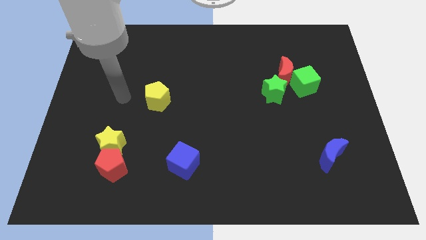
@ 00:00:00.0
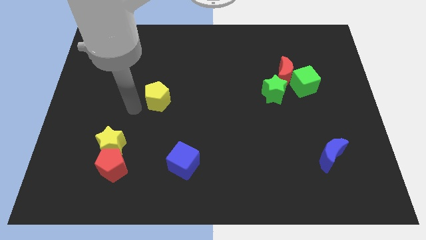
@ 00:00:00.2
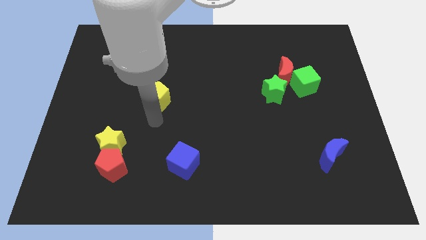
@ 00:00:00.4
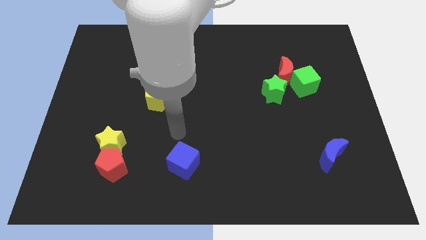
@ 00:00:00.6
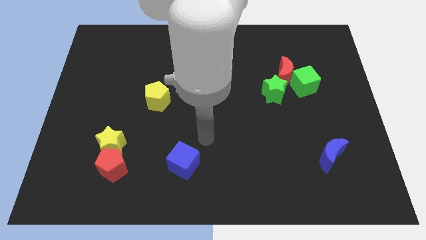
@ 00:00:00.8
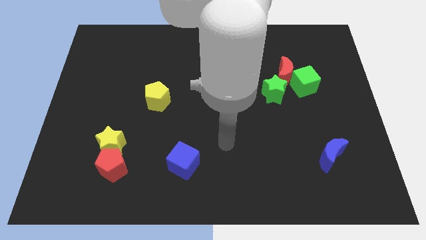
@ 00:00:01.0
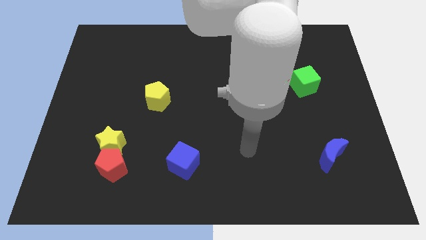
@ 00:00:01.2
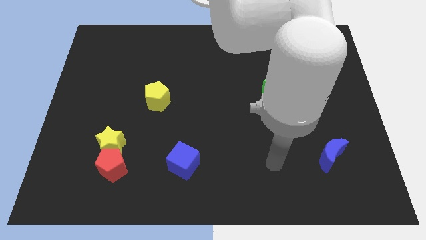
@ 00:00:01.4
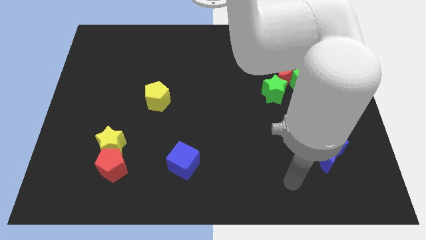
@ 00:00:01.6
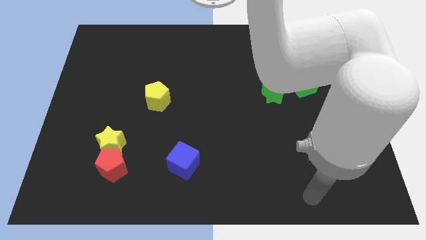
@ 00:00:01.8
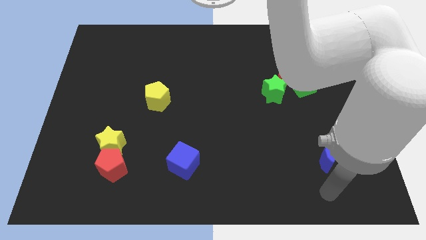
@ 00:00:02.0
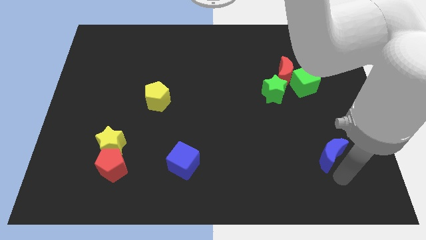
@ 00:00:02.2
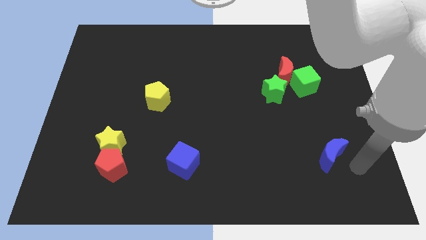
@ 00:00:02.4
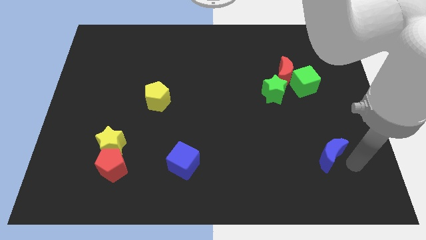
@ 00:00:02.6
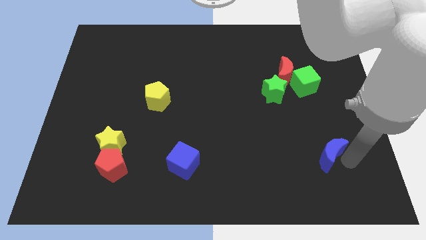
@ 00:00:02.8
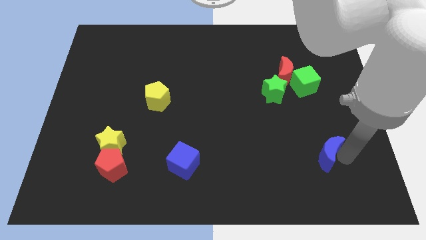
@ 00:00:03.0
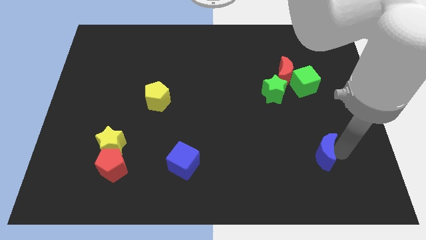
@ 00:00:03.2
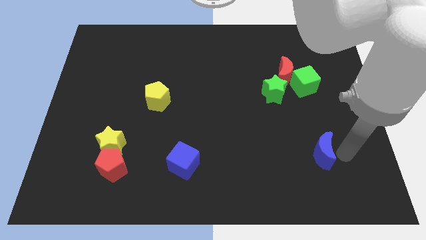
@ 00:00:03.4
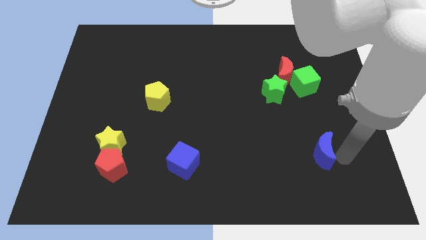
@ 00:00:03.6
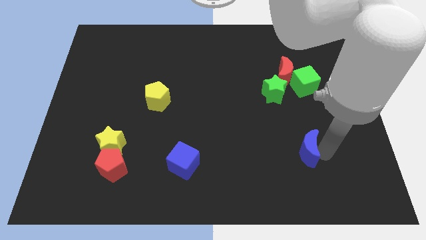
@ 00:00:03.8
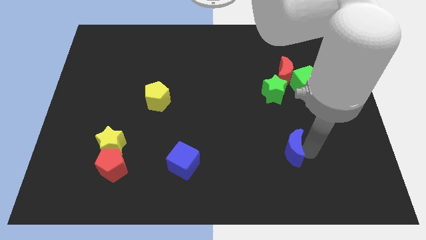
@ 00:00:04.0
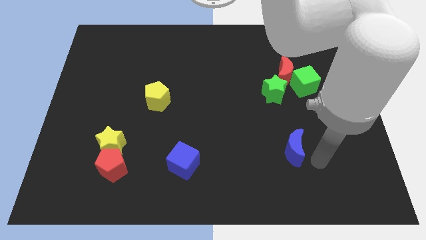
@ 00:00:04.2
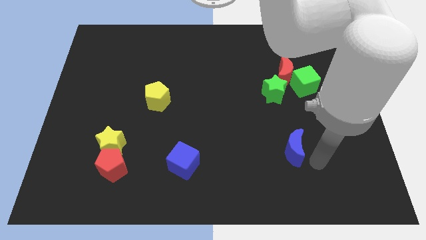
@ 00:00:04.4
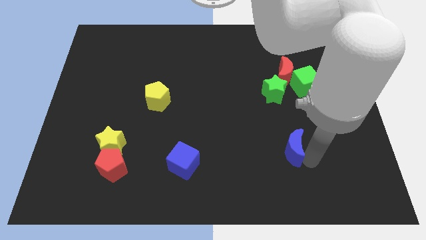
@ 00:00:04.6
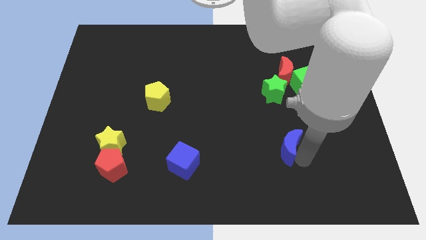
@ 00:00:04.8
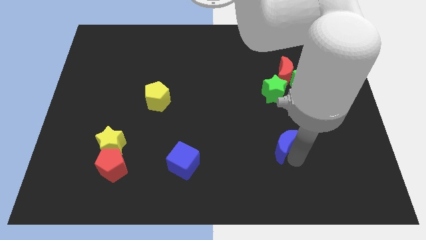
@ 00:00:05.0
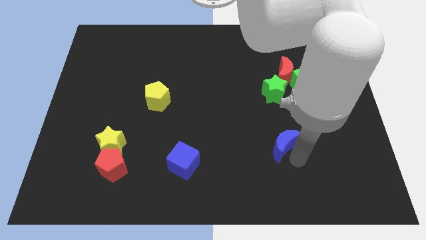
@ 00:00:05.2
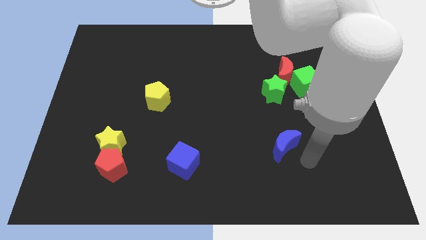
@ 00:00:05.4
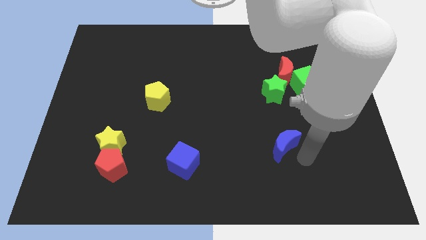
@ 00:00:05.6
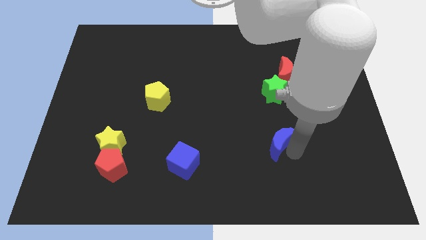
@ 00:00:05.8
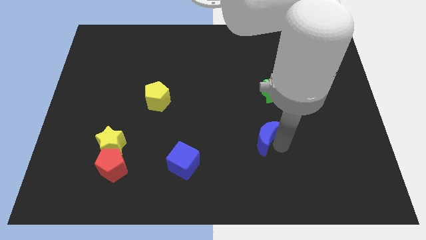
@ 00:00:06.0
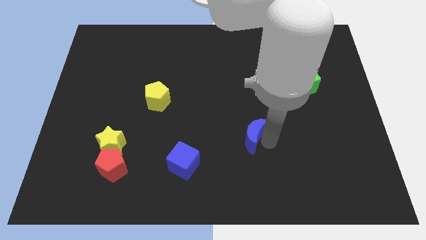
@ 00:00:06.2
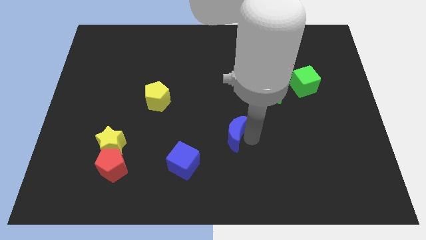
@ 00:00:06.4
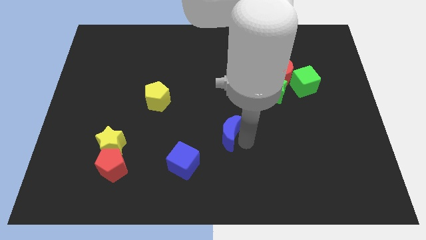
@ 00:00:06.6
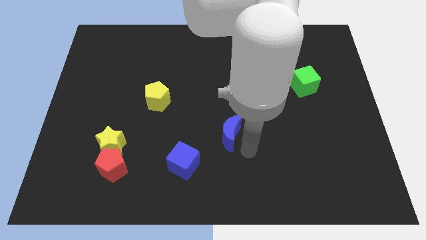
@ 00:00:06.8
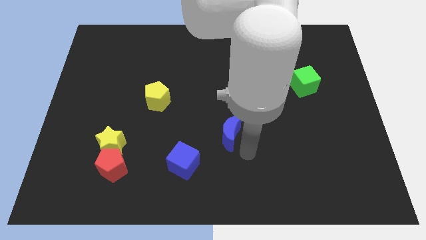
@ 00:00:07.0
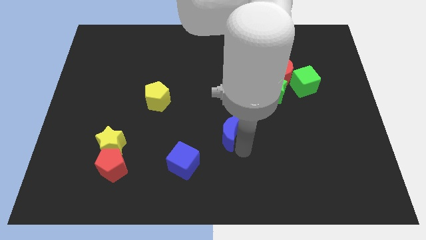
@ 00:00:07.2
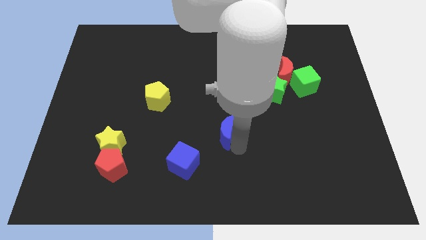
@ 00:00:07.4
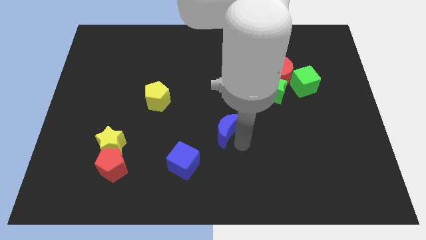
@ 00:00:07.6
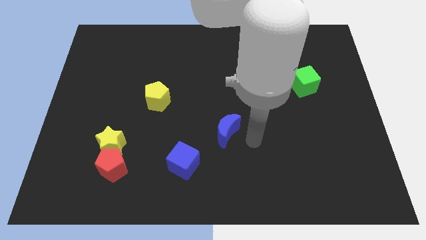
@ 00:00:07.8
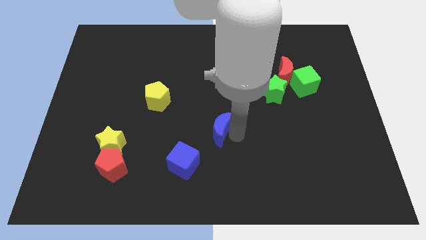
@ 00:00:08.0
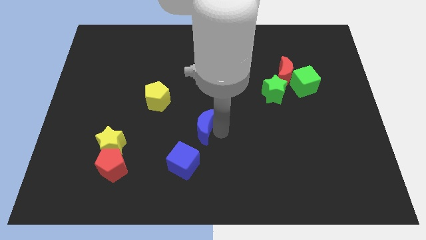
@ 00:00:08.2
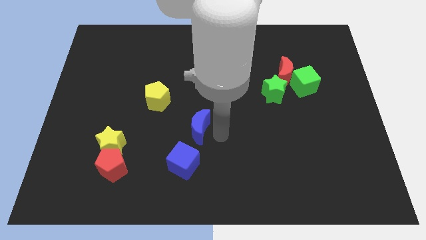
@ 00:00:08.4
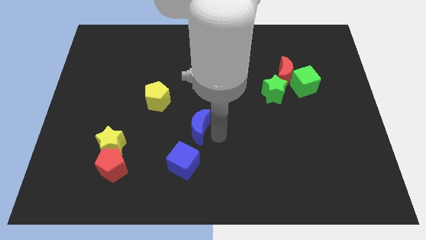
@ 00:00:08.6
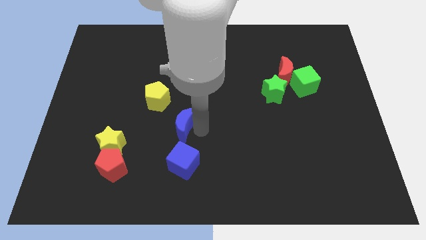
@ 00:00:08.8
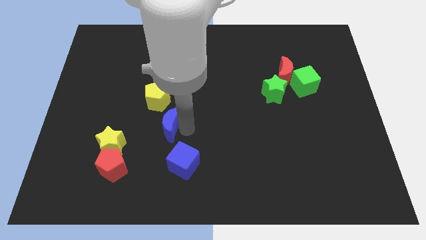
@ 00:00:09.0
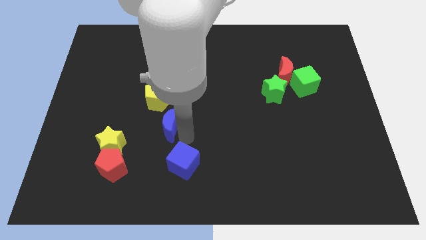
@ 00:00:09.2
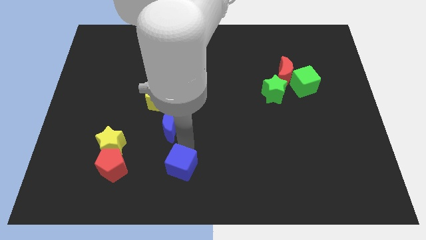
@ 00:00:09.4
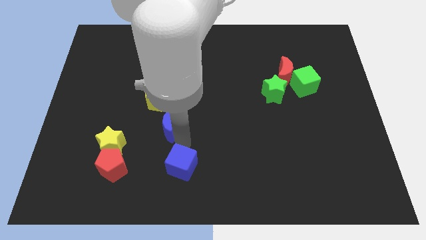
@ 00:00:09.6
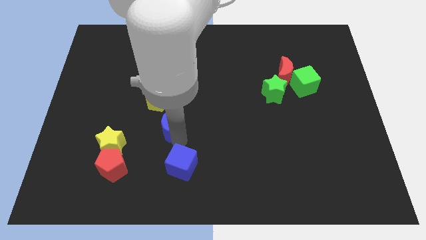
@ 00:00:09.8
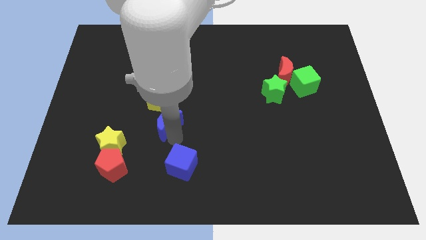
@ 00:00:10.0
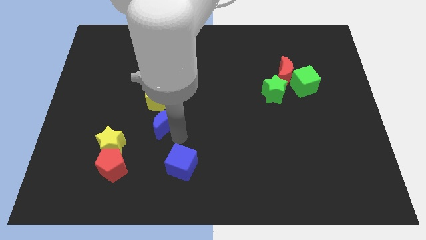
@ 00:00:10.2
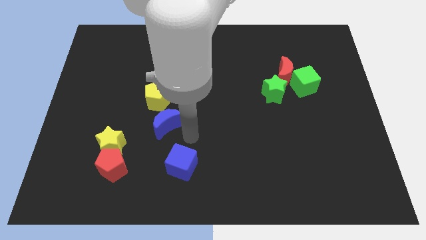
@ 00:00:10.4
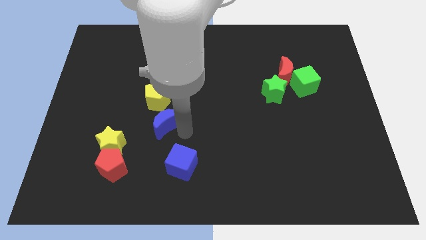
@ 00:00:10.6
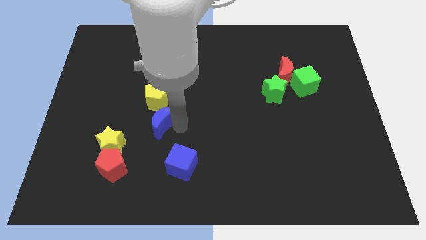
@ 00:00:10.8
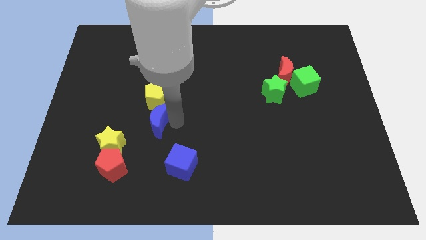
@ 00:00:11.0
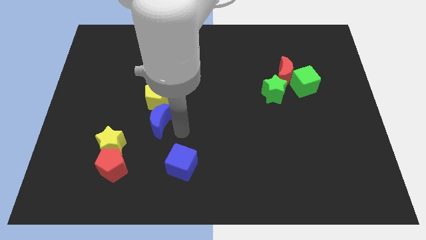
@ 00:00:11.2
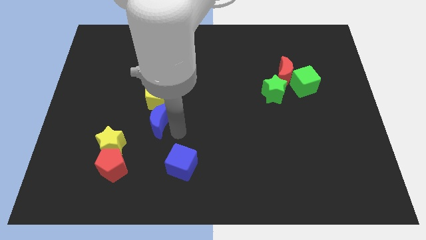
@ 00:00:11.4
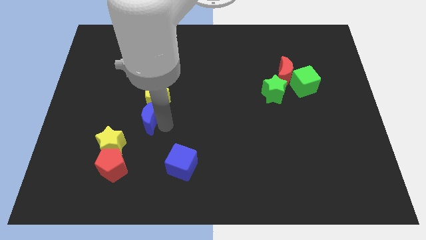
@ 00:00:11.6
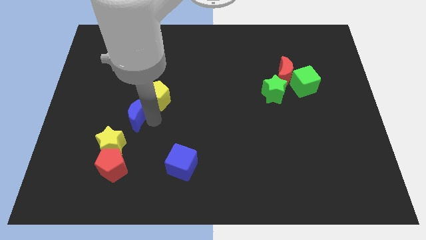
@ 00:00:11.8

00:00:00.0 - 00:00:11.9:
push the blue moon above the yellow star

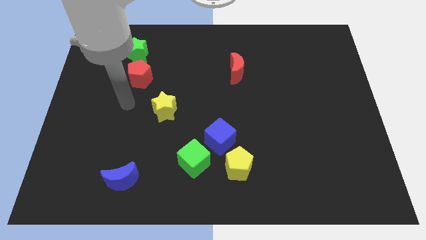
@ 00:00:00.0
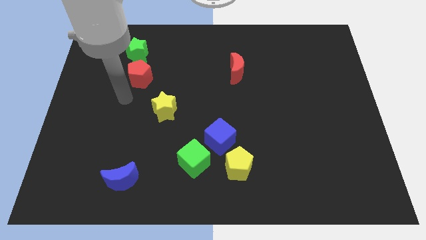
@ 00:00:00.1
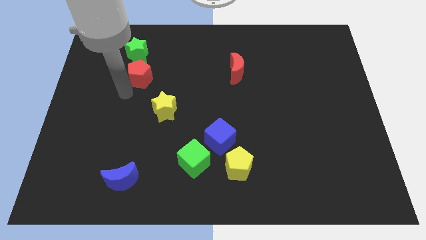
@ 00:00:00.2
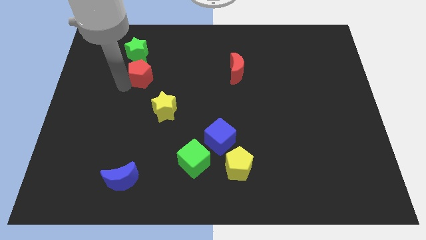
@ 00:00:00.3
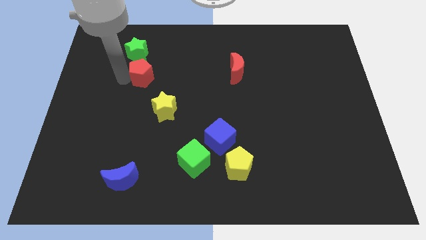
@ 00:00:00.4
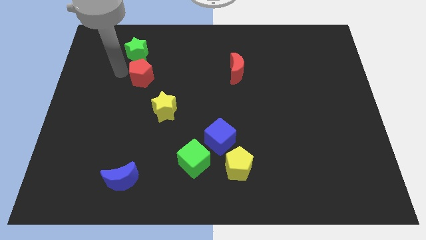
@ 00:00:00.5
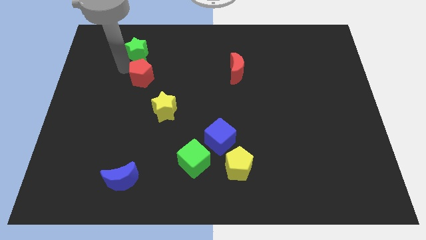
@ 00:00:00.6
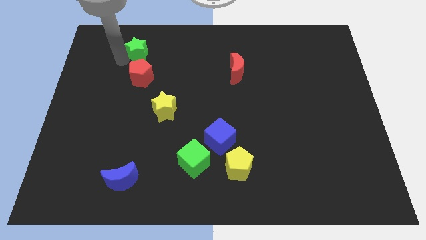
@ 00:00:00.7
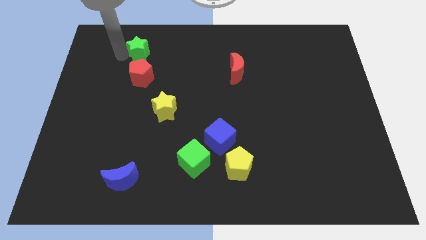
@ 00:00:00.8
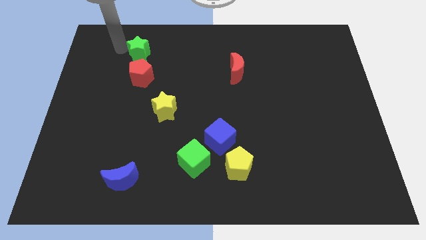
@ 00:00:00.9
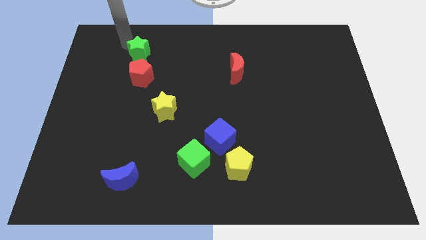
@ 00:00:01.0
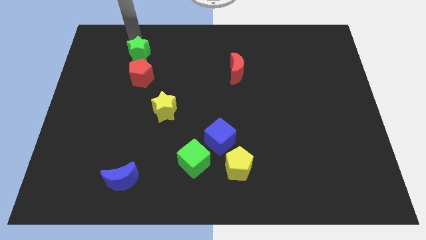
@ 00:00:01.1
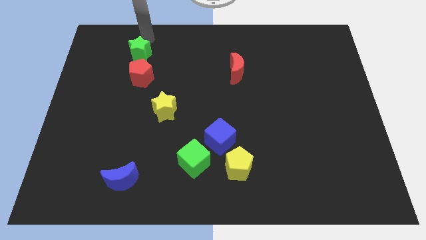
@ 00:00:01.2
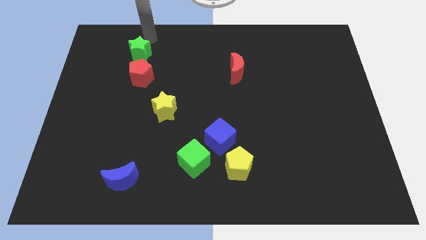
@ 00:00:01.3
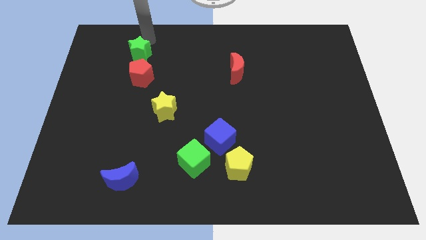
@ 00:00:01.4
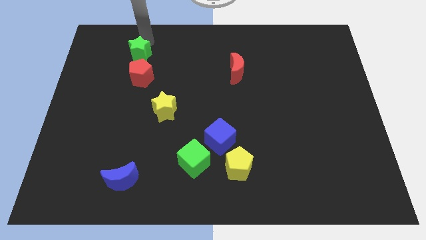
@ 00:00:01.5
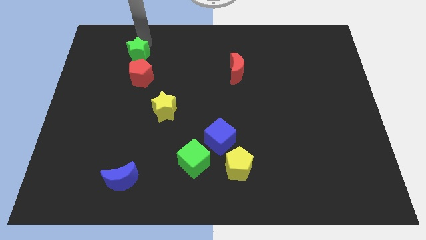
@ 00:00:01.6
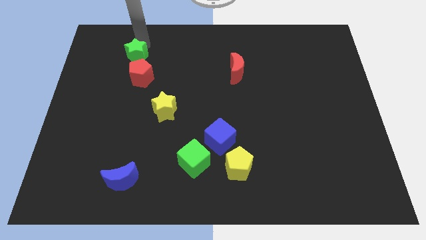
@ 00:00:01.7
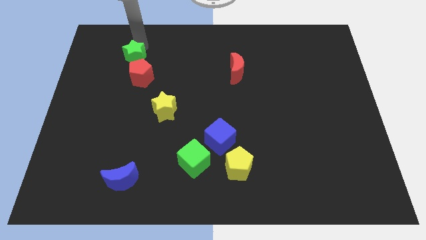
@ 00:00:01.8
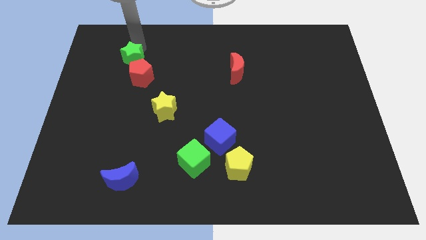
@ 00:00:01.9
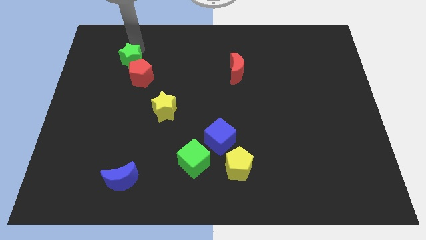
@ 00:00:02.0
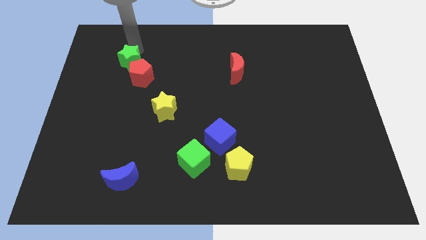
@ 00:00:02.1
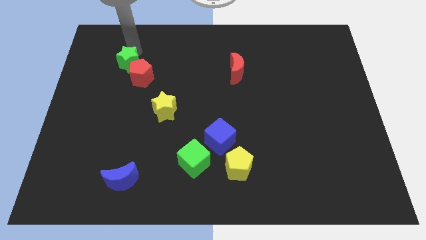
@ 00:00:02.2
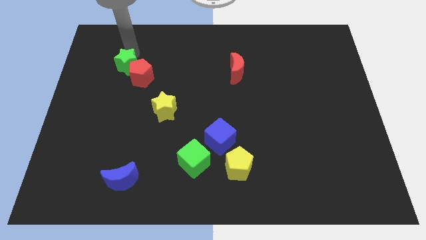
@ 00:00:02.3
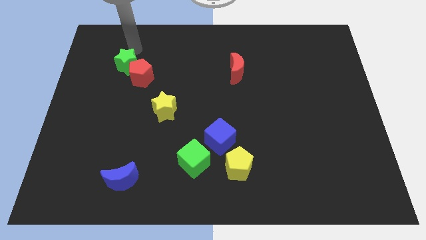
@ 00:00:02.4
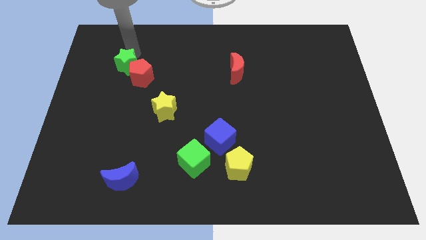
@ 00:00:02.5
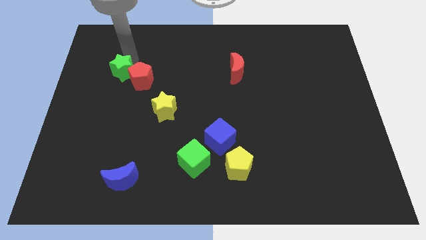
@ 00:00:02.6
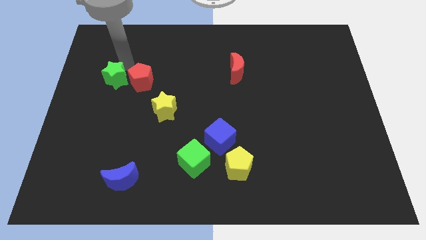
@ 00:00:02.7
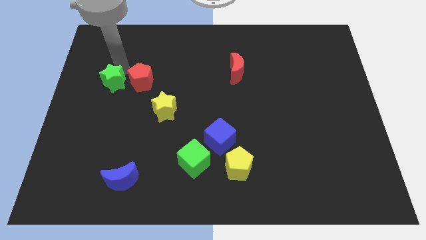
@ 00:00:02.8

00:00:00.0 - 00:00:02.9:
put the green star to the bottom left of the red pentagon
